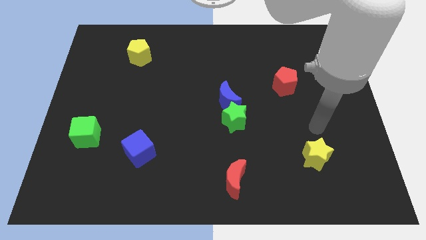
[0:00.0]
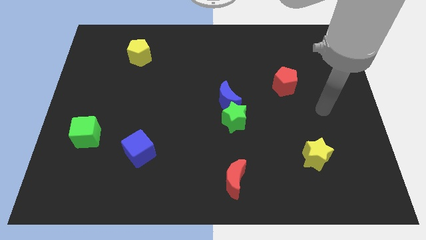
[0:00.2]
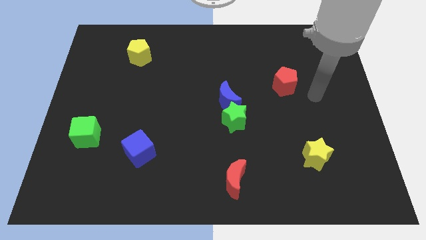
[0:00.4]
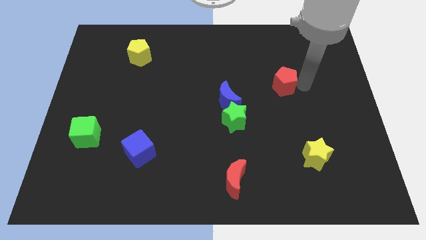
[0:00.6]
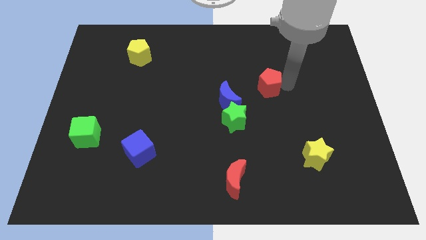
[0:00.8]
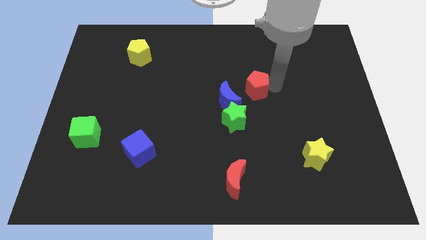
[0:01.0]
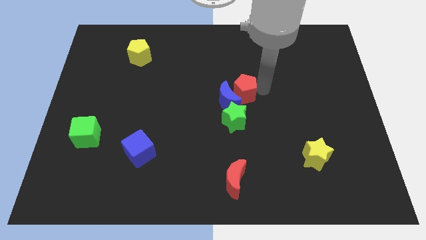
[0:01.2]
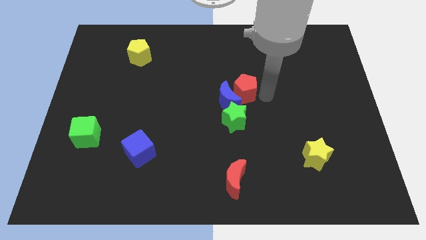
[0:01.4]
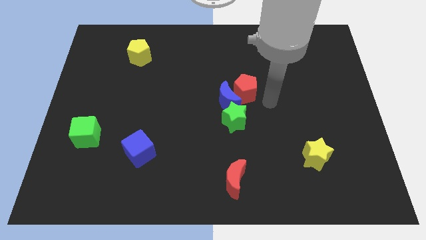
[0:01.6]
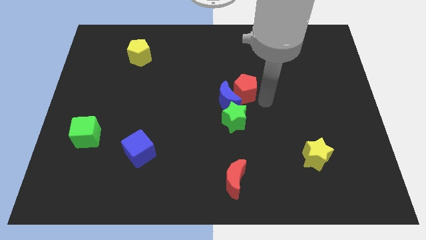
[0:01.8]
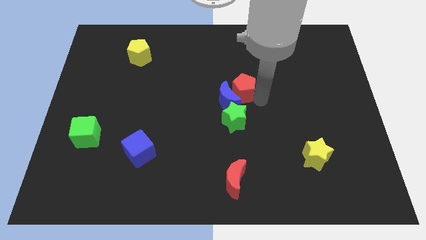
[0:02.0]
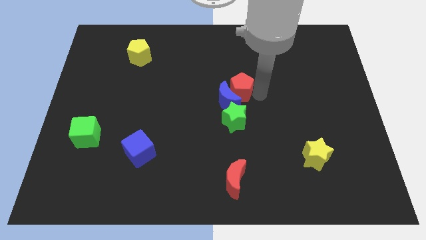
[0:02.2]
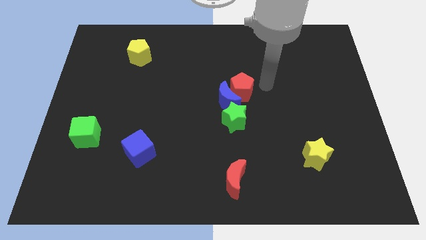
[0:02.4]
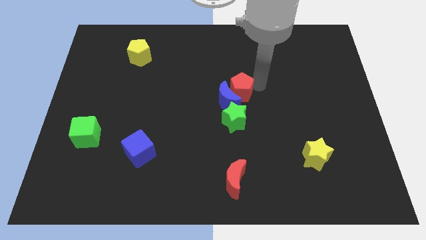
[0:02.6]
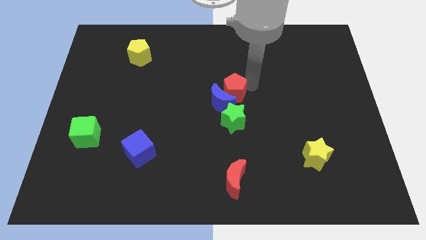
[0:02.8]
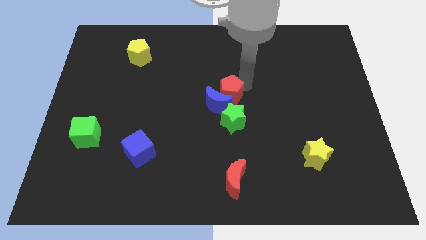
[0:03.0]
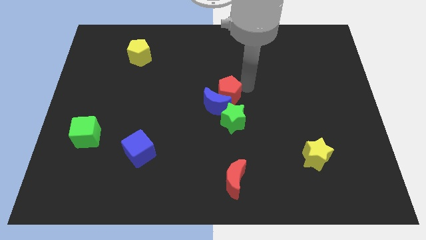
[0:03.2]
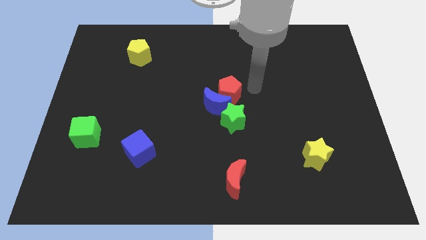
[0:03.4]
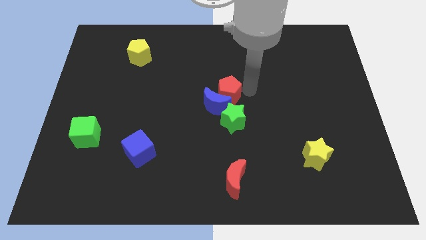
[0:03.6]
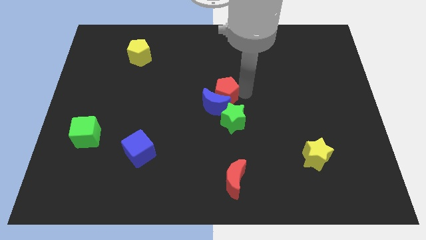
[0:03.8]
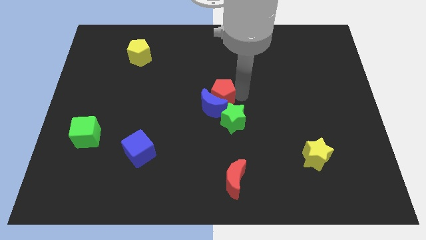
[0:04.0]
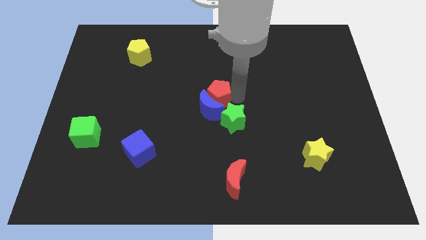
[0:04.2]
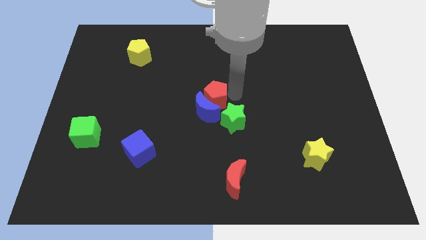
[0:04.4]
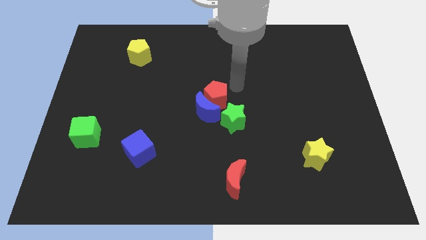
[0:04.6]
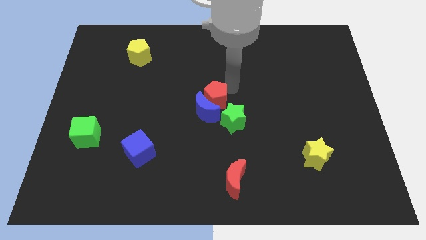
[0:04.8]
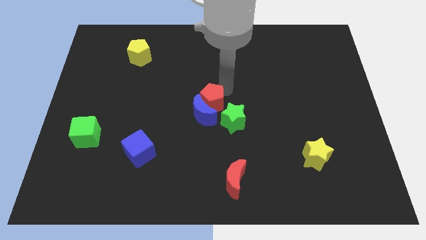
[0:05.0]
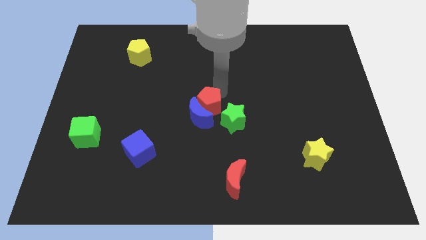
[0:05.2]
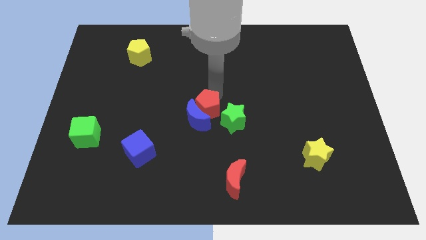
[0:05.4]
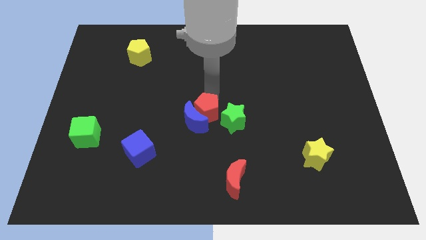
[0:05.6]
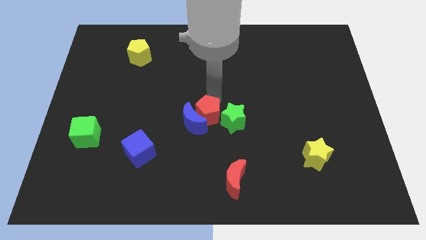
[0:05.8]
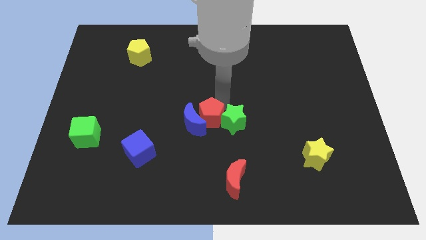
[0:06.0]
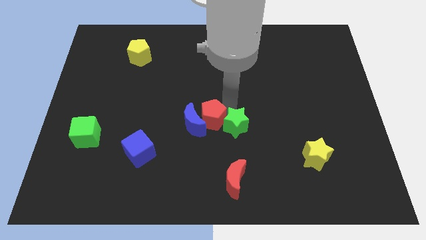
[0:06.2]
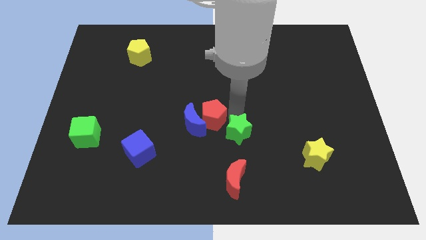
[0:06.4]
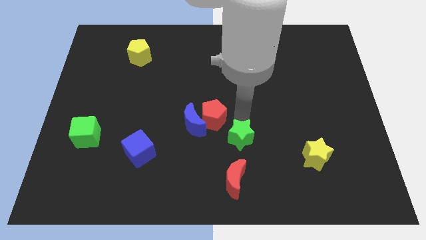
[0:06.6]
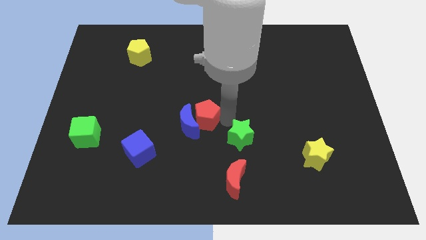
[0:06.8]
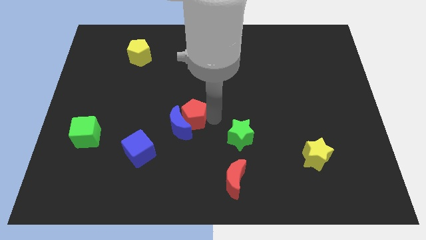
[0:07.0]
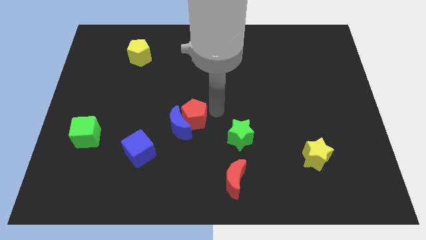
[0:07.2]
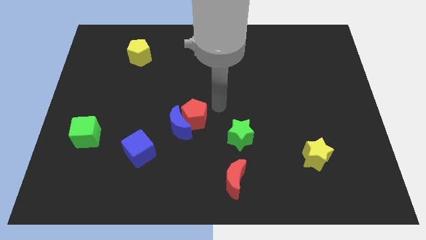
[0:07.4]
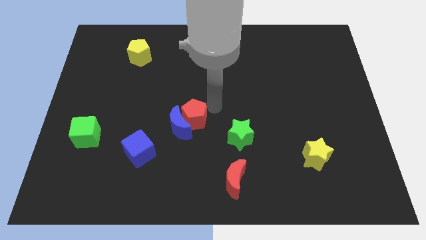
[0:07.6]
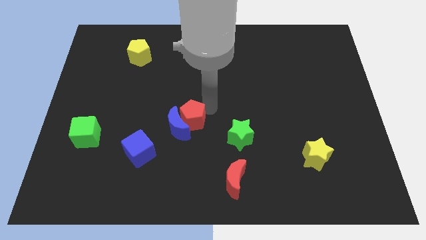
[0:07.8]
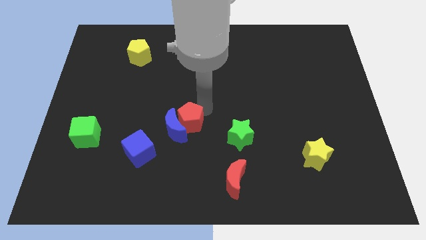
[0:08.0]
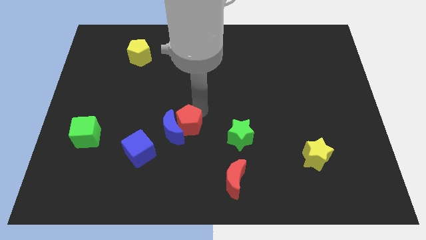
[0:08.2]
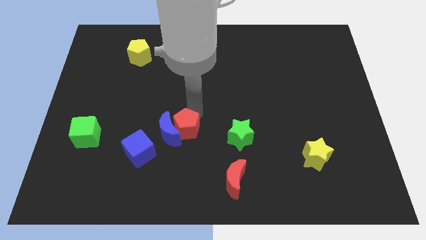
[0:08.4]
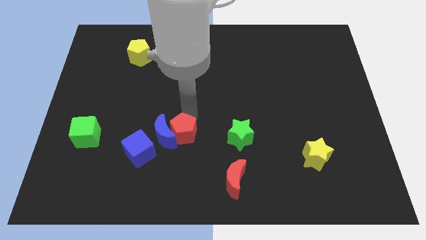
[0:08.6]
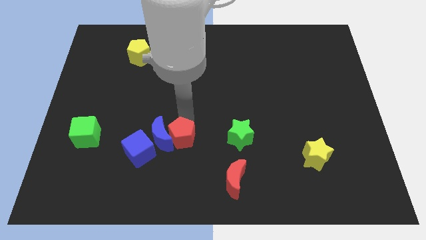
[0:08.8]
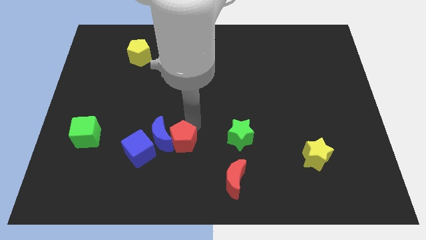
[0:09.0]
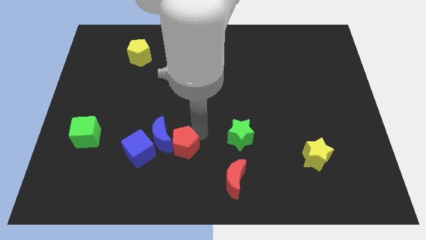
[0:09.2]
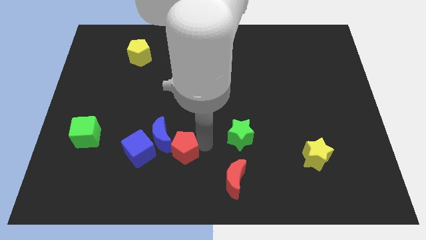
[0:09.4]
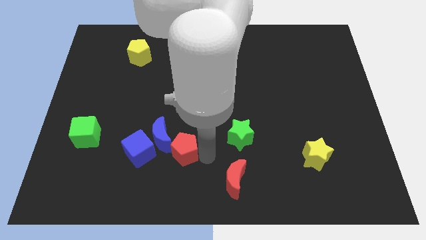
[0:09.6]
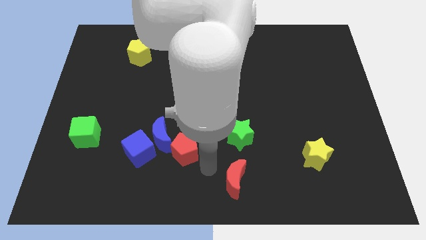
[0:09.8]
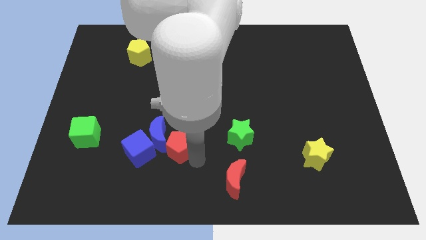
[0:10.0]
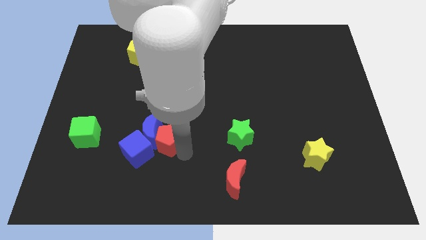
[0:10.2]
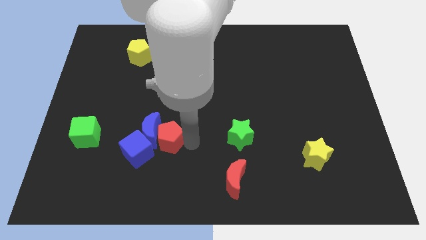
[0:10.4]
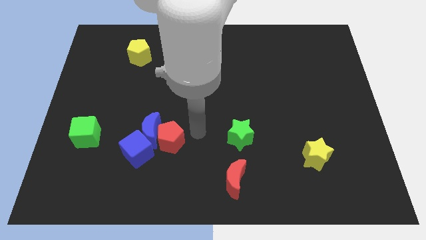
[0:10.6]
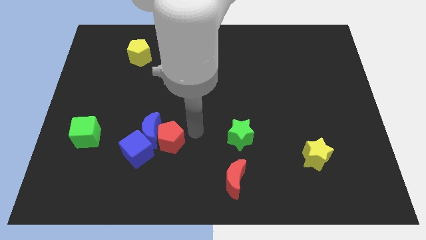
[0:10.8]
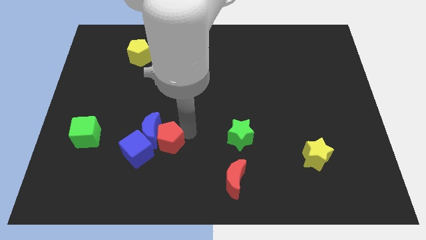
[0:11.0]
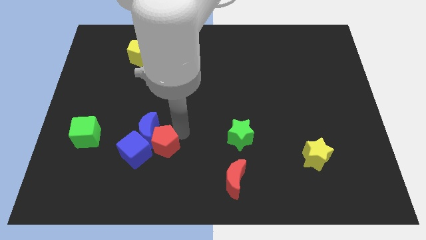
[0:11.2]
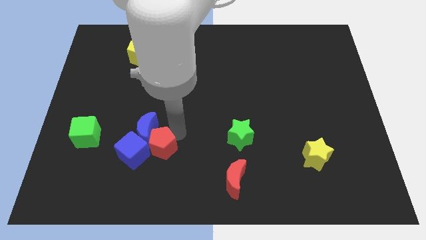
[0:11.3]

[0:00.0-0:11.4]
slide the red pentagon next to the blue cube

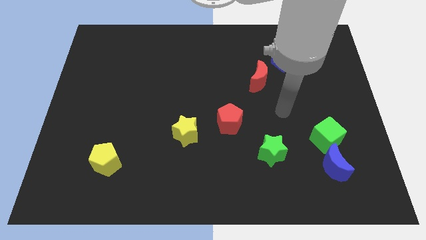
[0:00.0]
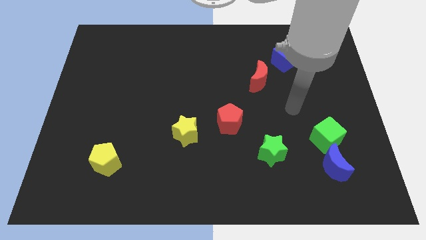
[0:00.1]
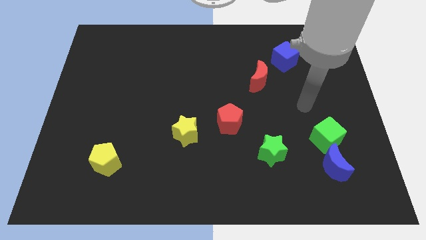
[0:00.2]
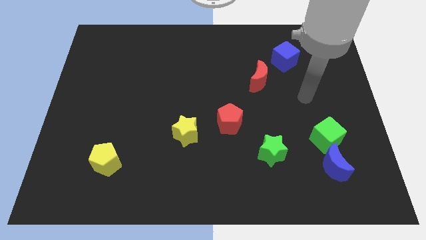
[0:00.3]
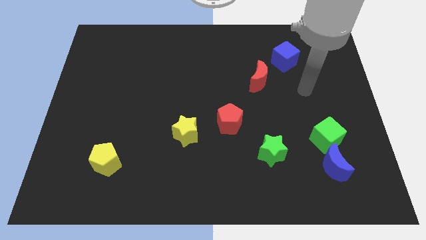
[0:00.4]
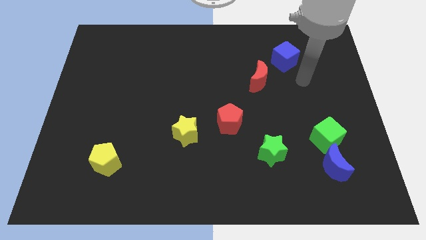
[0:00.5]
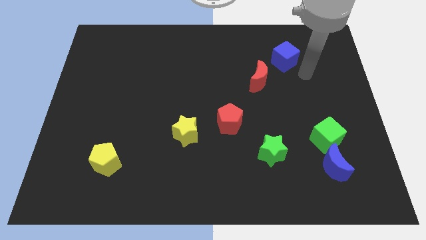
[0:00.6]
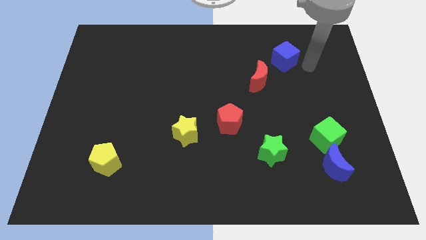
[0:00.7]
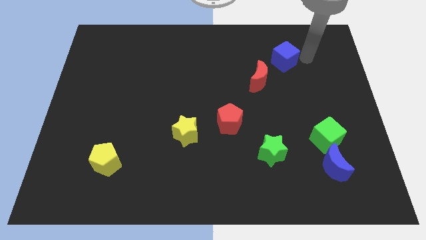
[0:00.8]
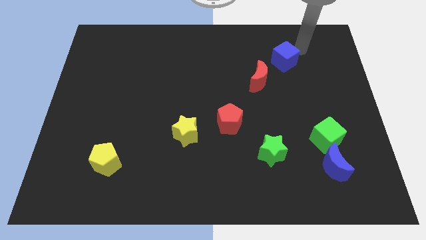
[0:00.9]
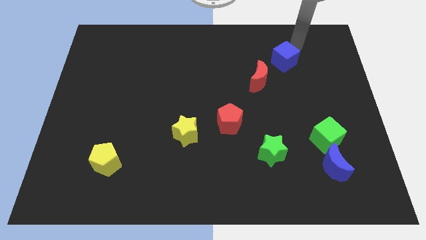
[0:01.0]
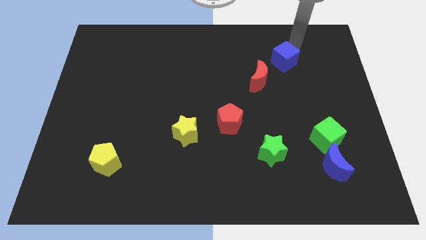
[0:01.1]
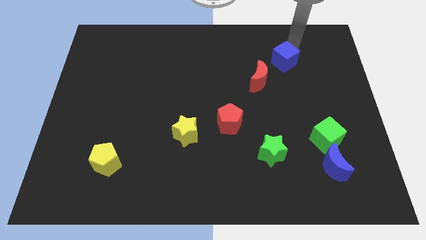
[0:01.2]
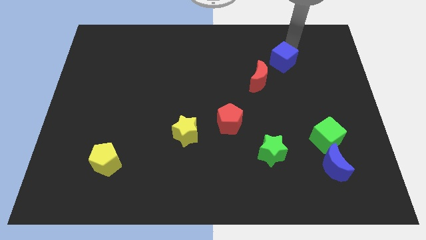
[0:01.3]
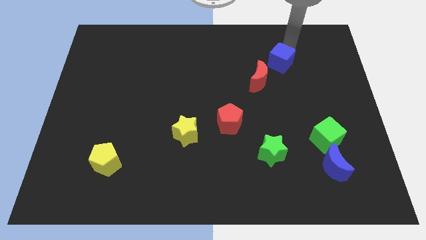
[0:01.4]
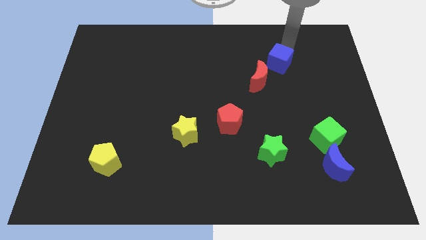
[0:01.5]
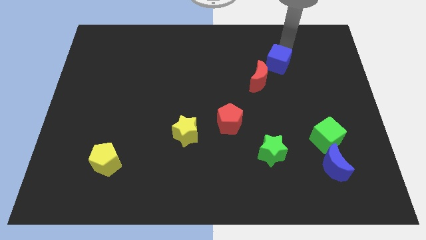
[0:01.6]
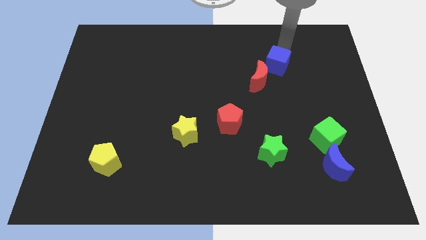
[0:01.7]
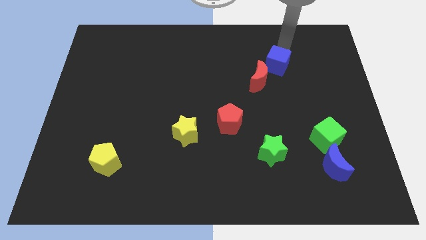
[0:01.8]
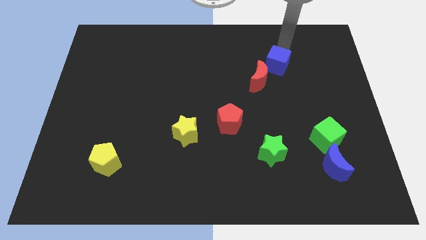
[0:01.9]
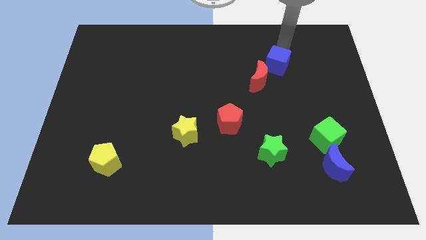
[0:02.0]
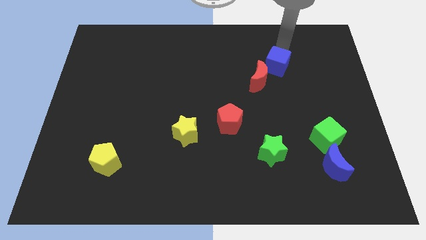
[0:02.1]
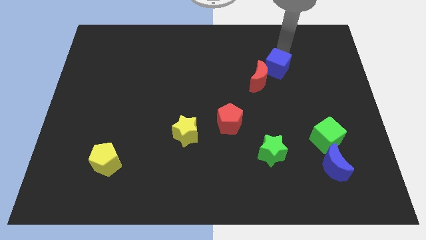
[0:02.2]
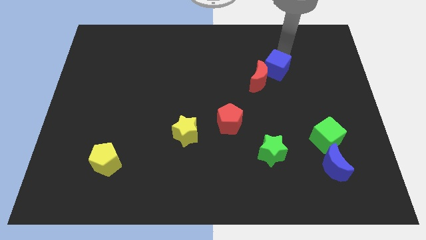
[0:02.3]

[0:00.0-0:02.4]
put the blue cube towards the red moon
